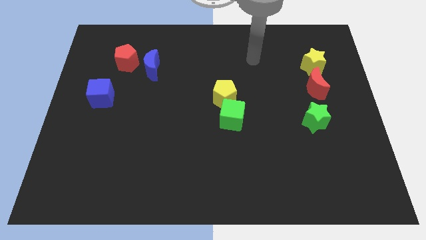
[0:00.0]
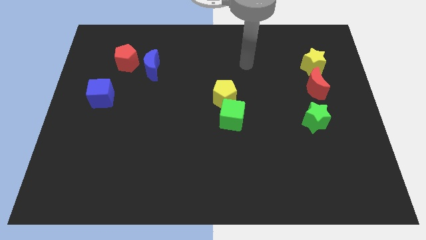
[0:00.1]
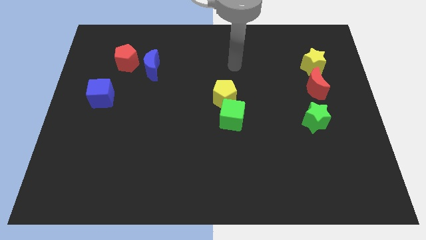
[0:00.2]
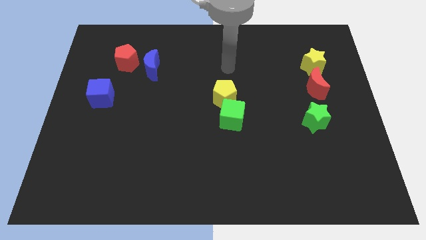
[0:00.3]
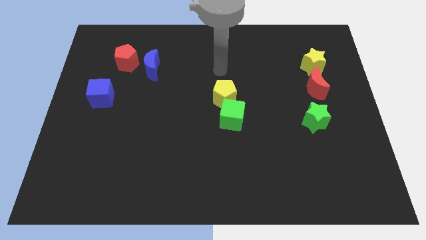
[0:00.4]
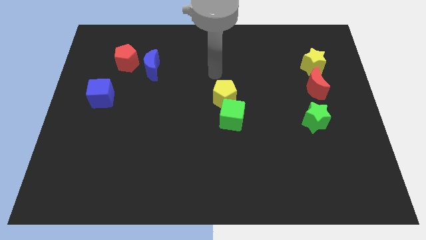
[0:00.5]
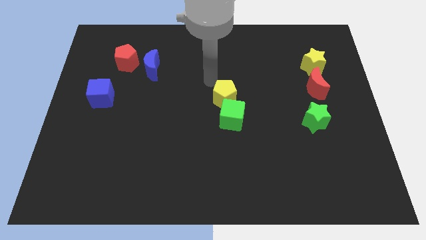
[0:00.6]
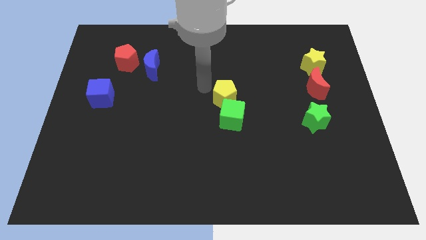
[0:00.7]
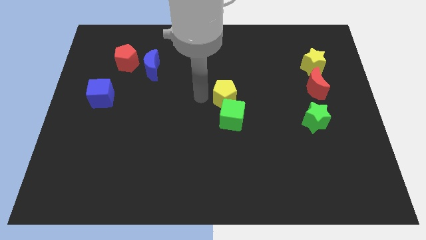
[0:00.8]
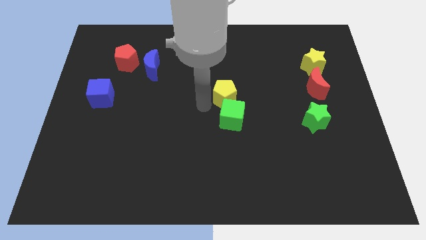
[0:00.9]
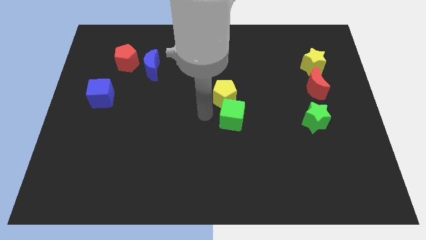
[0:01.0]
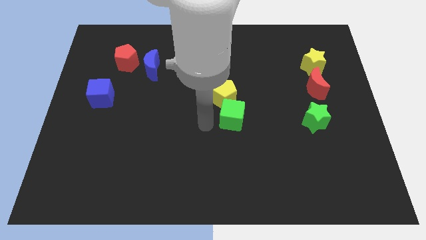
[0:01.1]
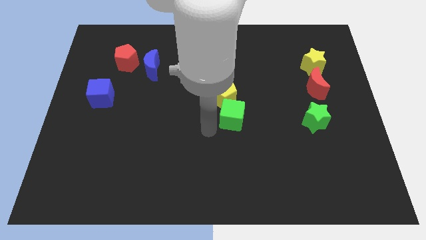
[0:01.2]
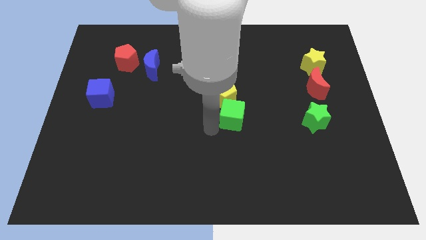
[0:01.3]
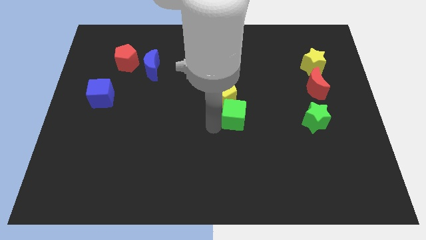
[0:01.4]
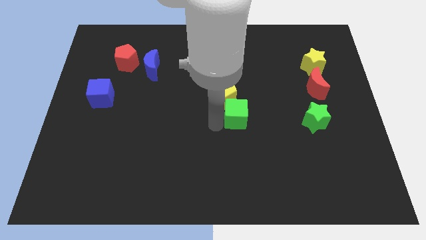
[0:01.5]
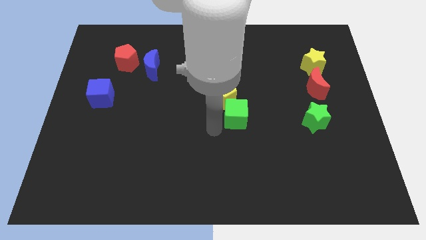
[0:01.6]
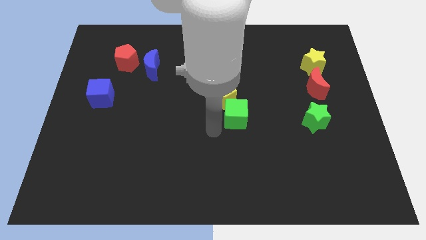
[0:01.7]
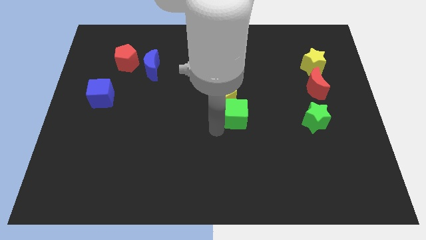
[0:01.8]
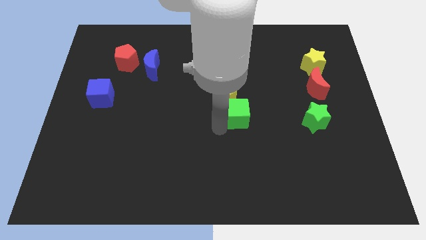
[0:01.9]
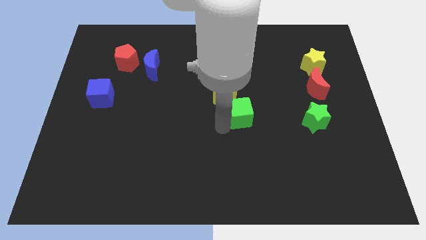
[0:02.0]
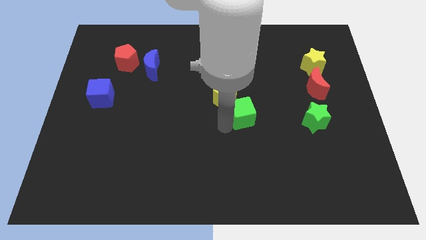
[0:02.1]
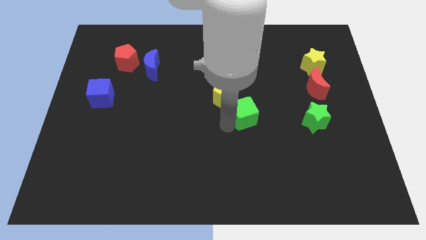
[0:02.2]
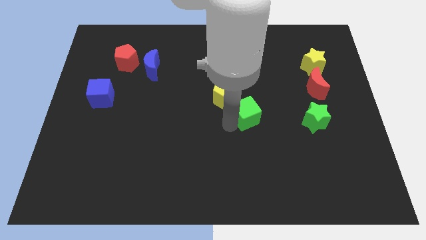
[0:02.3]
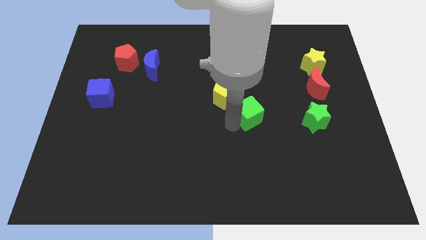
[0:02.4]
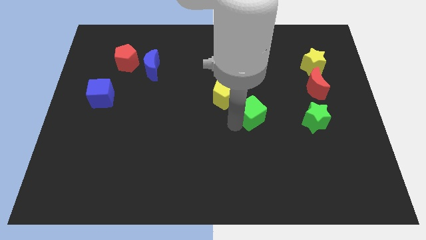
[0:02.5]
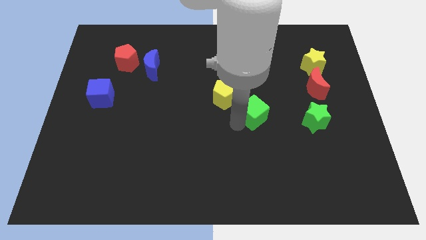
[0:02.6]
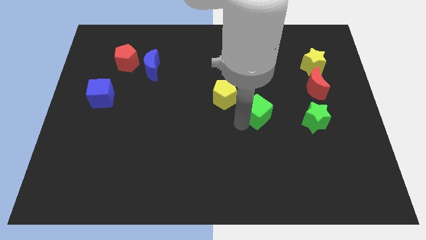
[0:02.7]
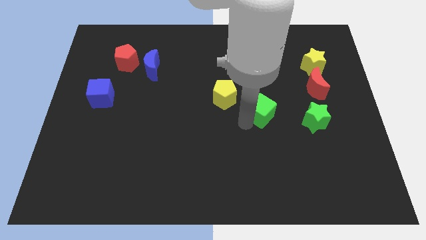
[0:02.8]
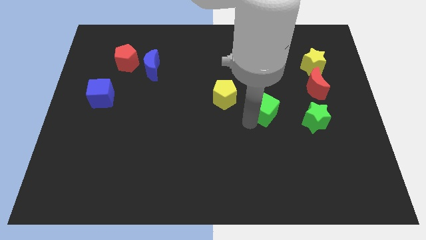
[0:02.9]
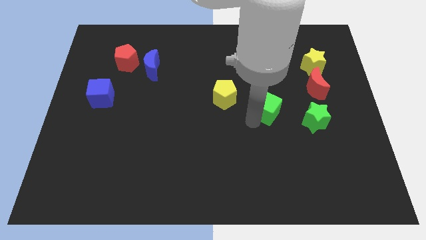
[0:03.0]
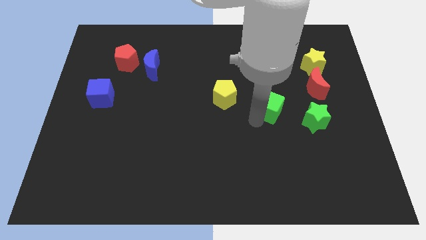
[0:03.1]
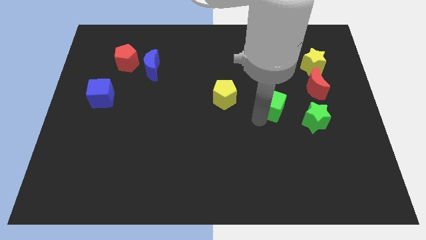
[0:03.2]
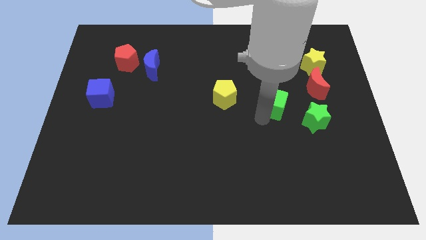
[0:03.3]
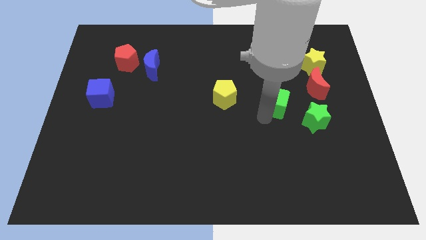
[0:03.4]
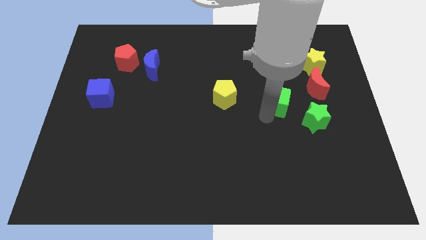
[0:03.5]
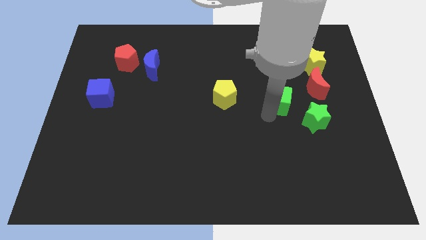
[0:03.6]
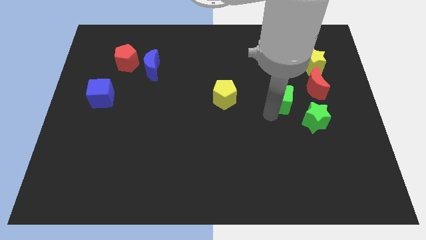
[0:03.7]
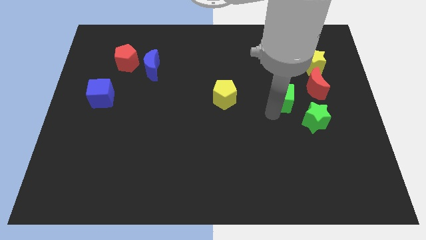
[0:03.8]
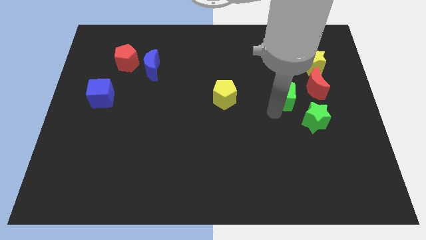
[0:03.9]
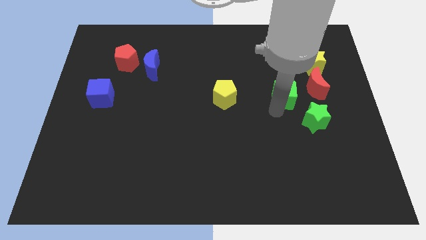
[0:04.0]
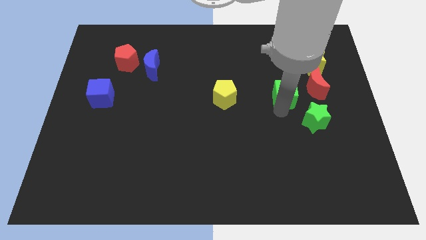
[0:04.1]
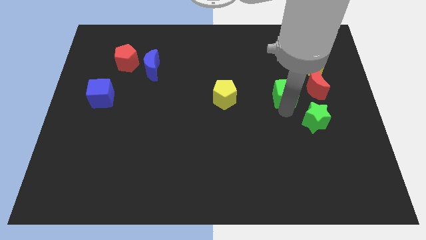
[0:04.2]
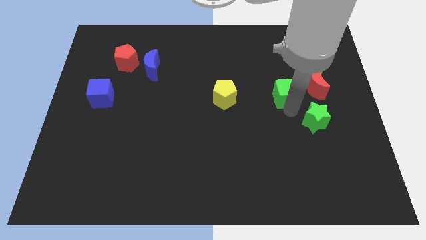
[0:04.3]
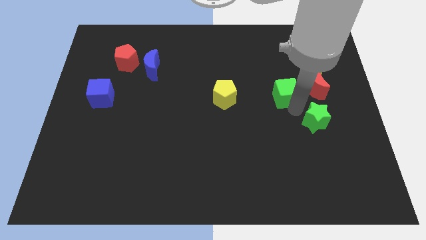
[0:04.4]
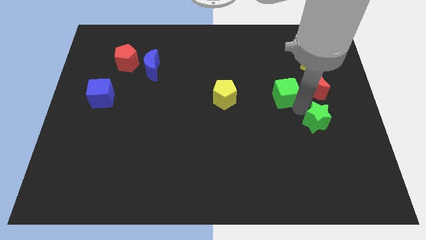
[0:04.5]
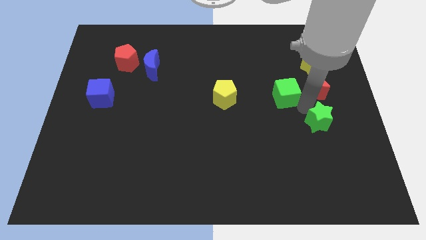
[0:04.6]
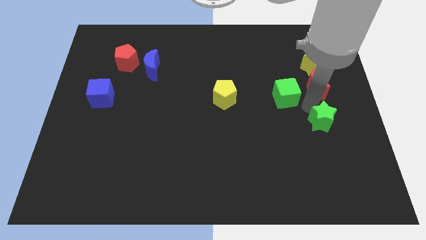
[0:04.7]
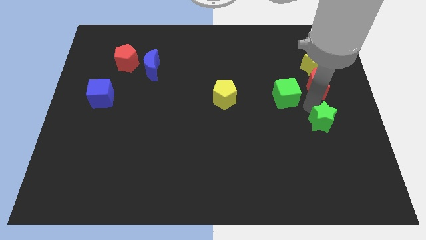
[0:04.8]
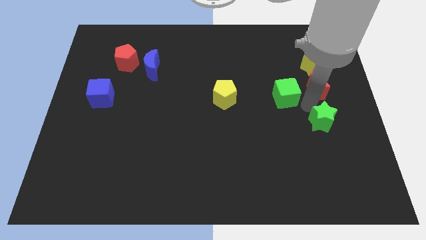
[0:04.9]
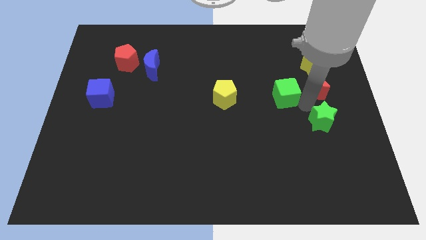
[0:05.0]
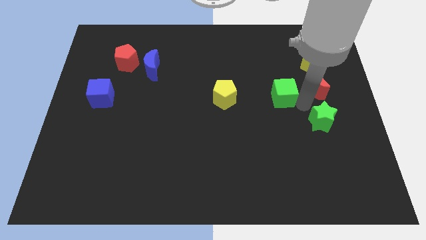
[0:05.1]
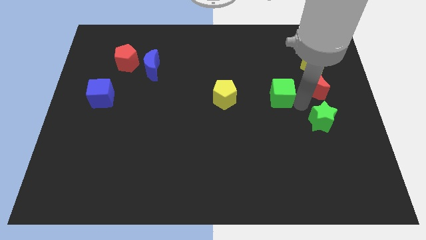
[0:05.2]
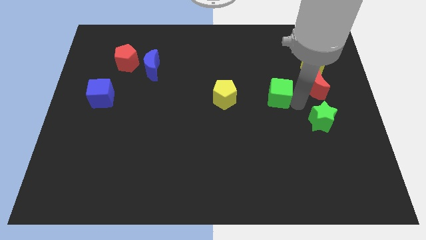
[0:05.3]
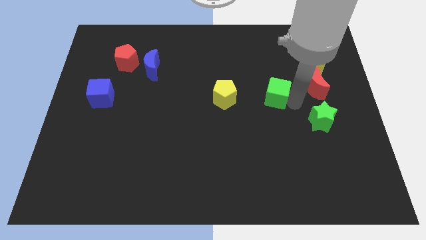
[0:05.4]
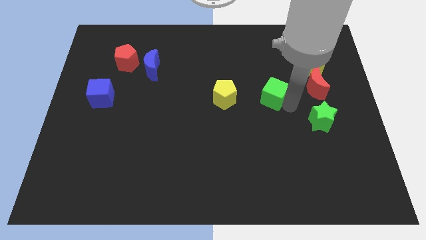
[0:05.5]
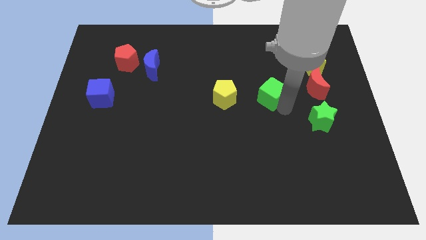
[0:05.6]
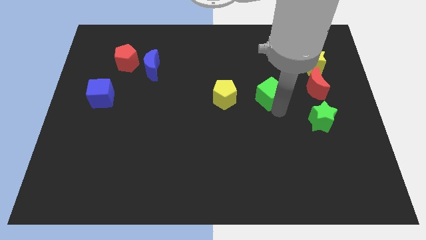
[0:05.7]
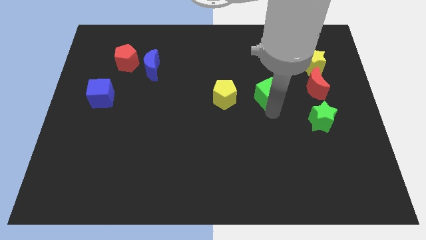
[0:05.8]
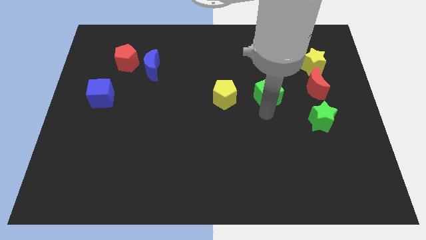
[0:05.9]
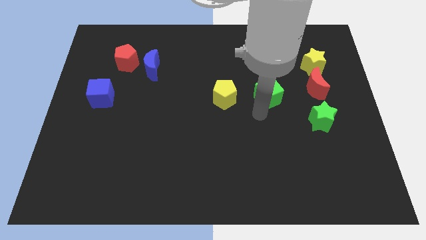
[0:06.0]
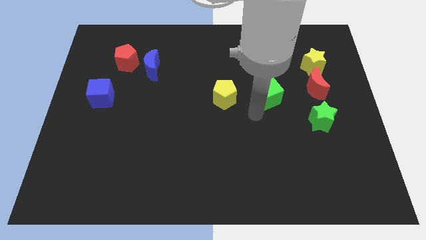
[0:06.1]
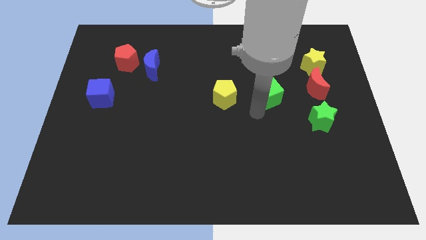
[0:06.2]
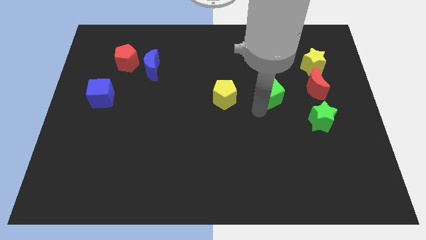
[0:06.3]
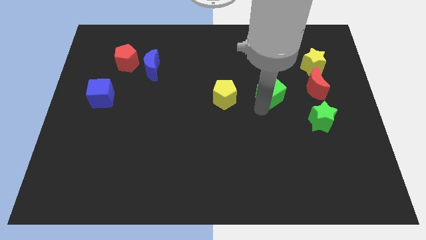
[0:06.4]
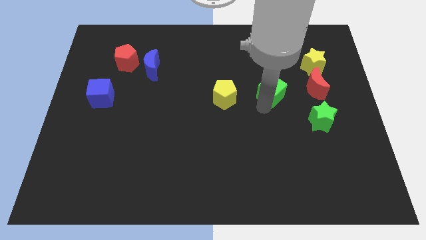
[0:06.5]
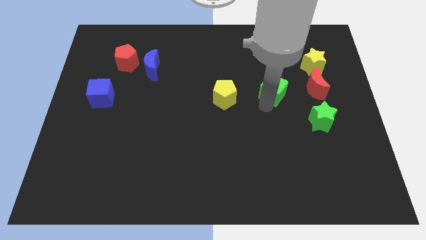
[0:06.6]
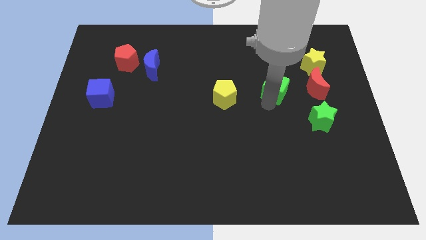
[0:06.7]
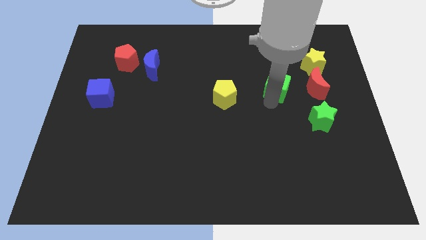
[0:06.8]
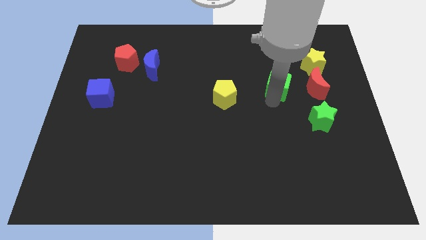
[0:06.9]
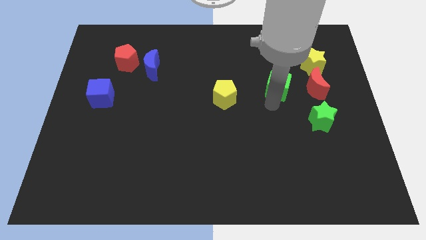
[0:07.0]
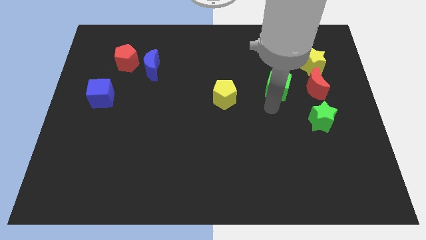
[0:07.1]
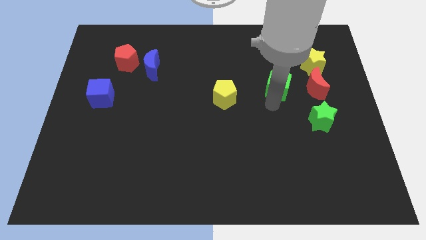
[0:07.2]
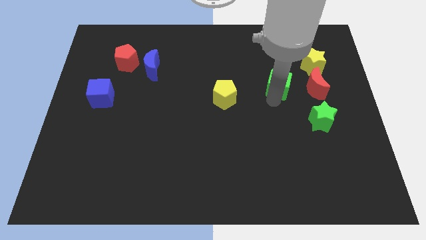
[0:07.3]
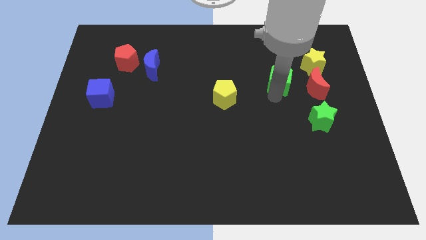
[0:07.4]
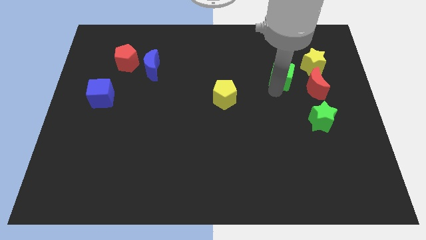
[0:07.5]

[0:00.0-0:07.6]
slide the green cube diagonally up and to the left of the red moon
